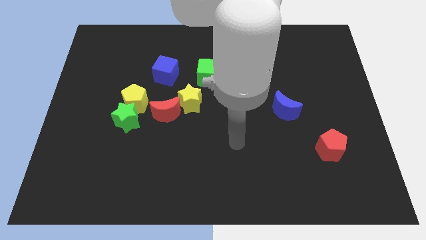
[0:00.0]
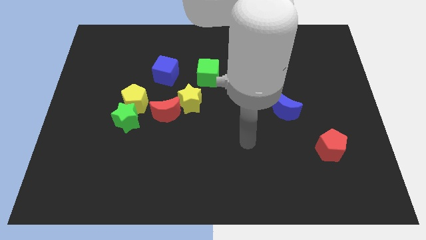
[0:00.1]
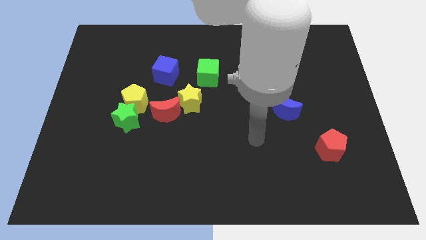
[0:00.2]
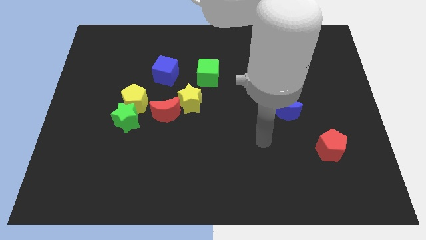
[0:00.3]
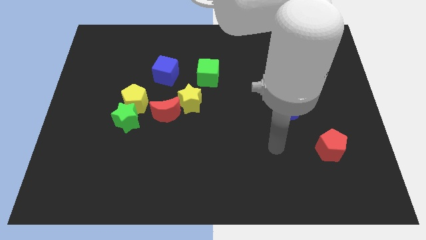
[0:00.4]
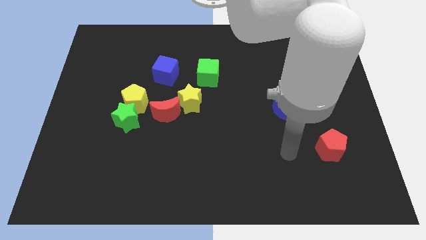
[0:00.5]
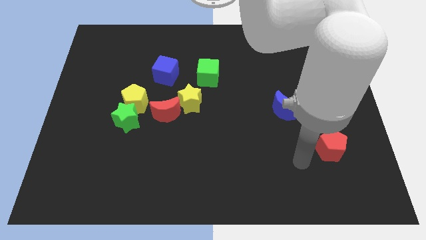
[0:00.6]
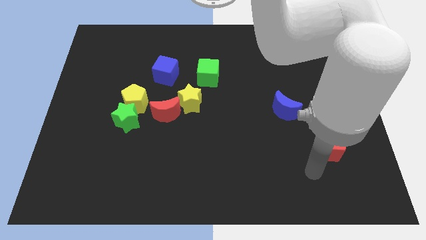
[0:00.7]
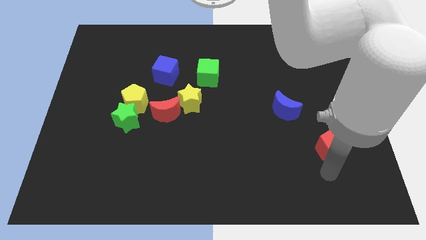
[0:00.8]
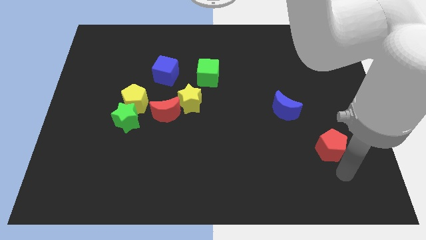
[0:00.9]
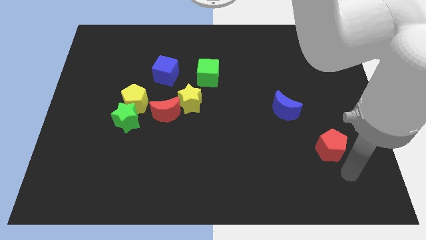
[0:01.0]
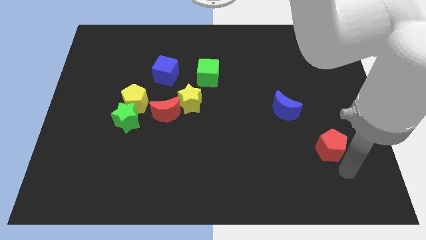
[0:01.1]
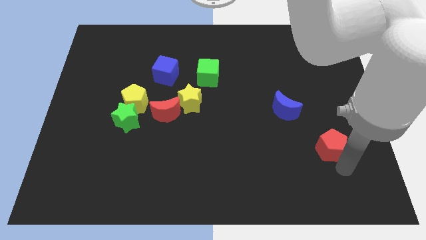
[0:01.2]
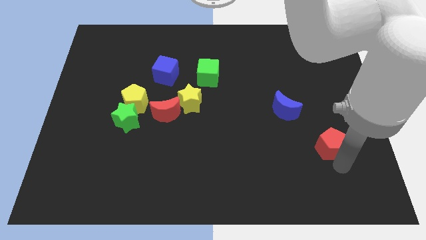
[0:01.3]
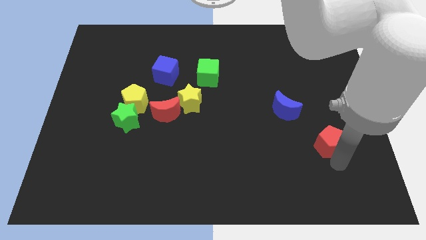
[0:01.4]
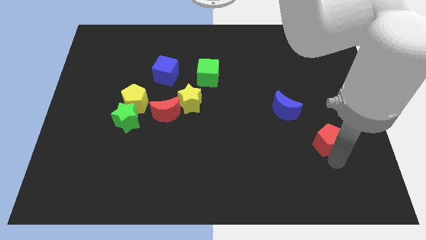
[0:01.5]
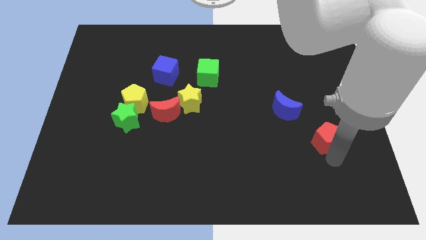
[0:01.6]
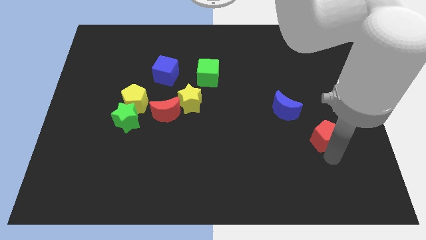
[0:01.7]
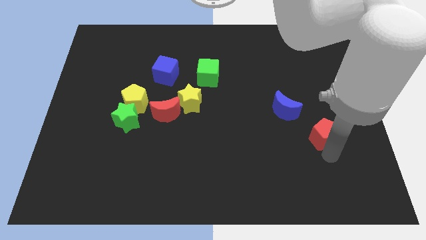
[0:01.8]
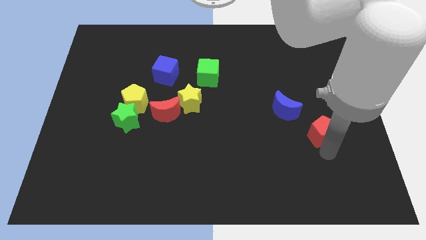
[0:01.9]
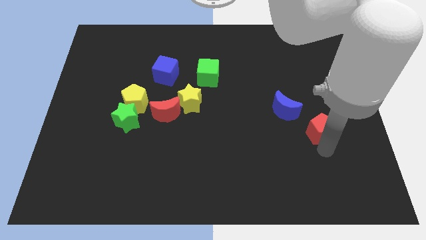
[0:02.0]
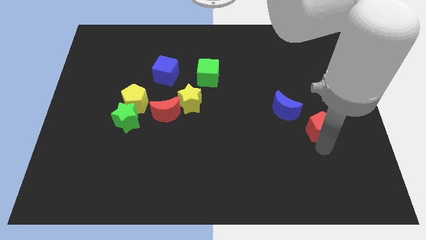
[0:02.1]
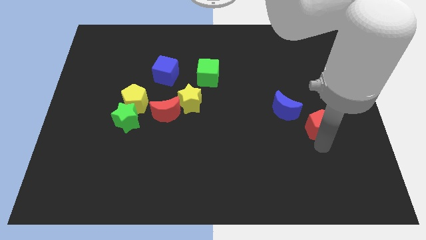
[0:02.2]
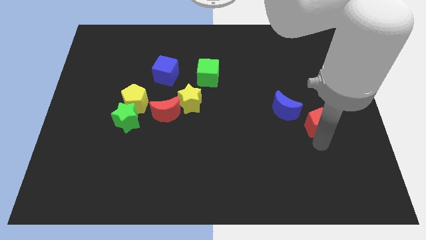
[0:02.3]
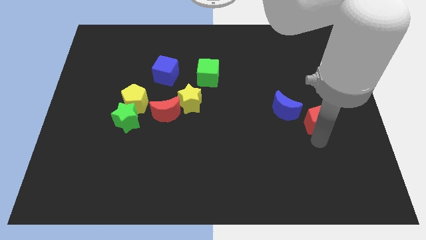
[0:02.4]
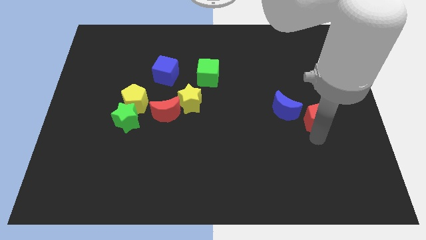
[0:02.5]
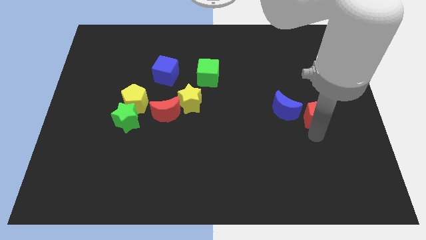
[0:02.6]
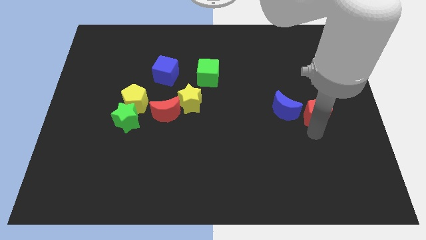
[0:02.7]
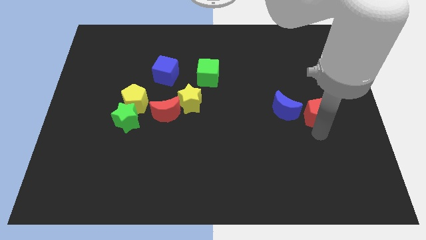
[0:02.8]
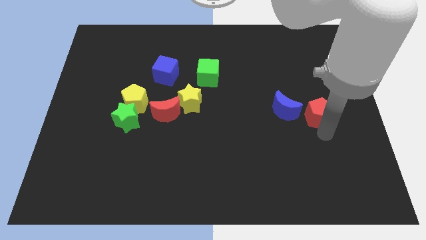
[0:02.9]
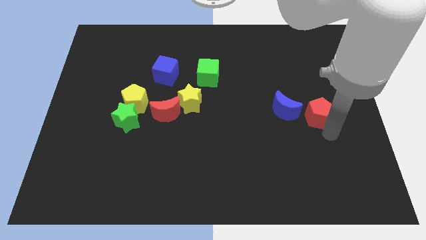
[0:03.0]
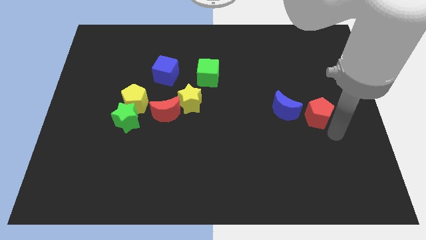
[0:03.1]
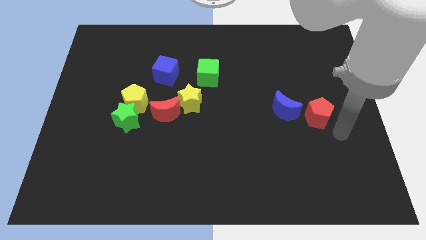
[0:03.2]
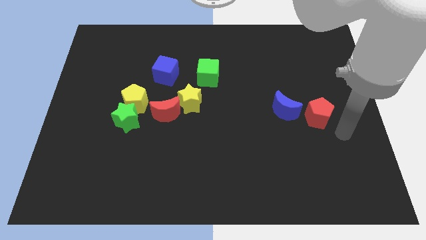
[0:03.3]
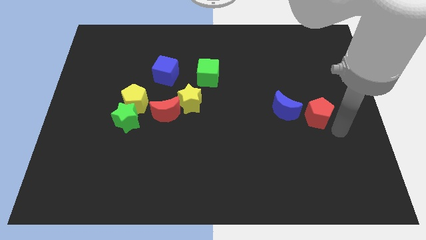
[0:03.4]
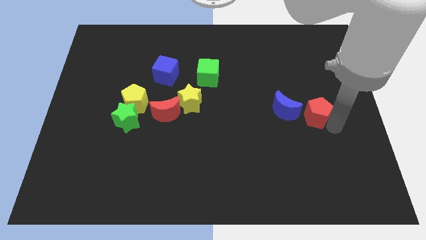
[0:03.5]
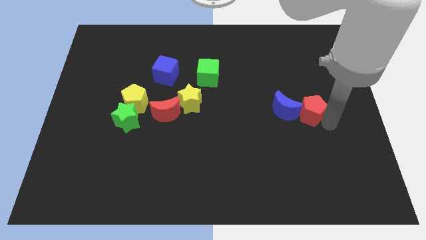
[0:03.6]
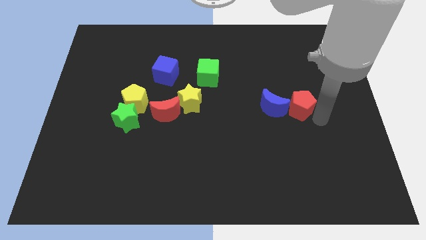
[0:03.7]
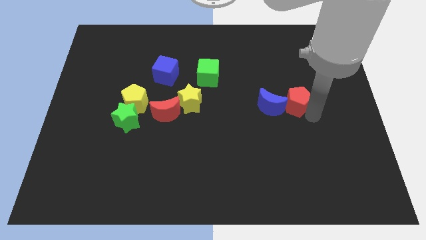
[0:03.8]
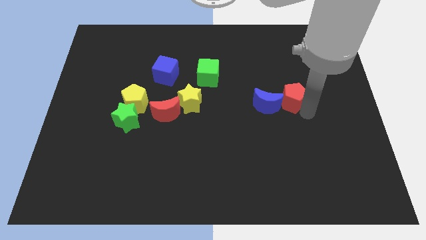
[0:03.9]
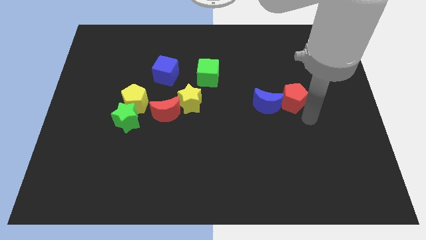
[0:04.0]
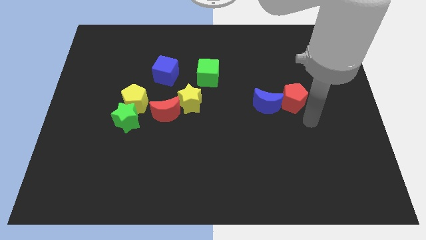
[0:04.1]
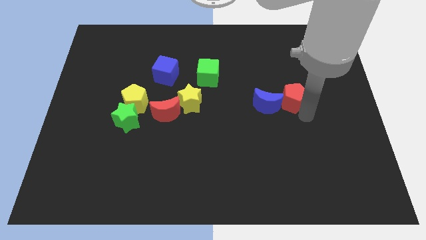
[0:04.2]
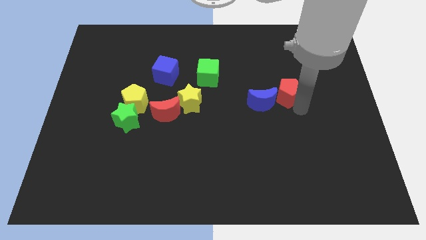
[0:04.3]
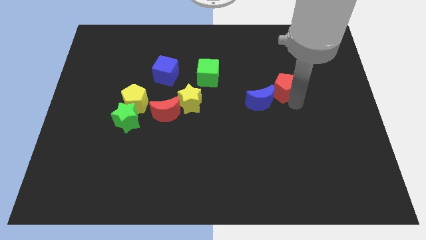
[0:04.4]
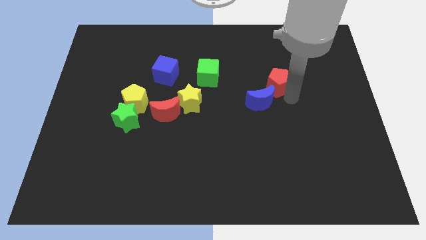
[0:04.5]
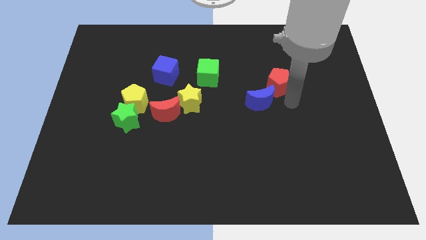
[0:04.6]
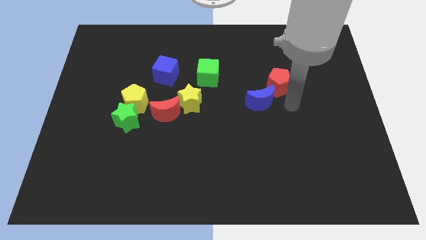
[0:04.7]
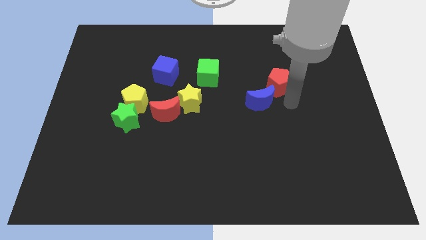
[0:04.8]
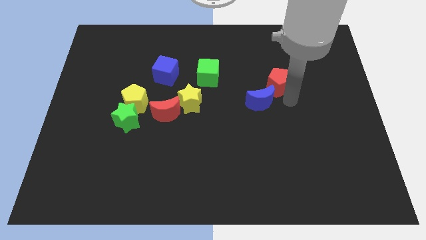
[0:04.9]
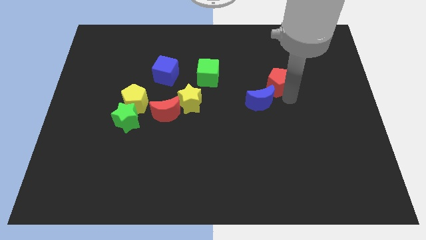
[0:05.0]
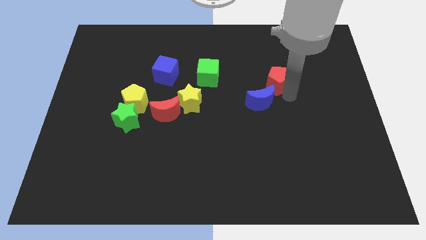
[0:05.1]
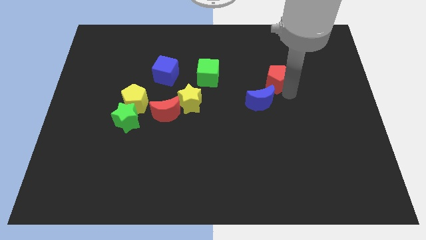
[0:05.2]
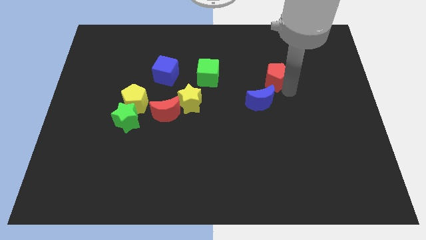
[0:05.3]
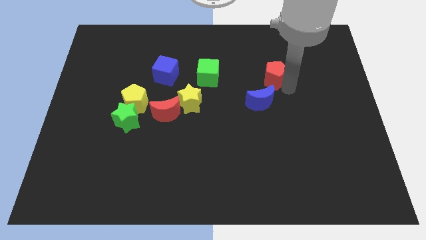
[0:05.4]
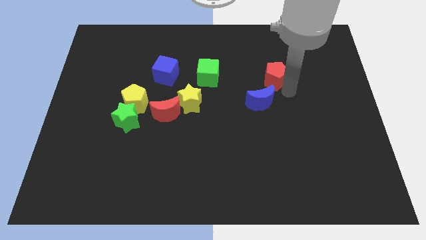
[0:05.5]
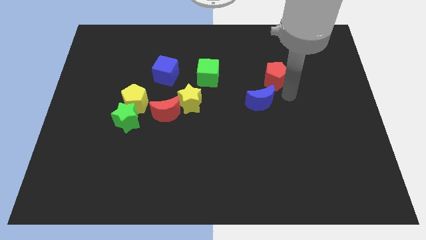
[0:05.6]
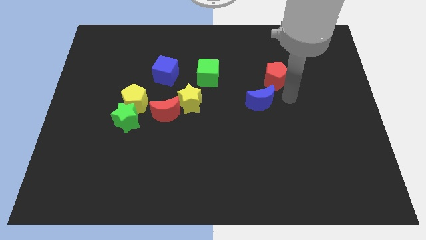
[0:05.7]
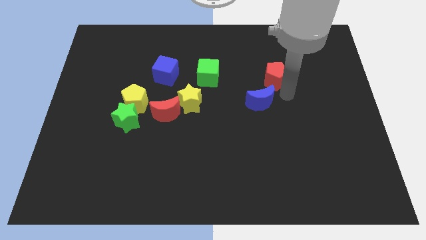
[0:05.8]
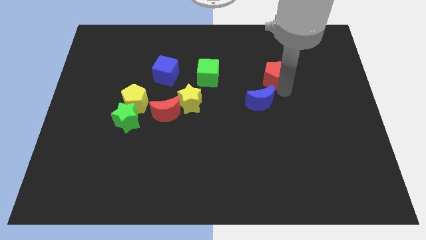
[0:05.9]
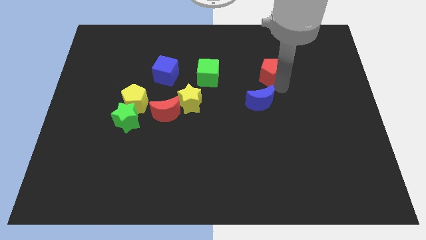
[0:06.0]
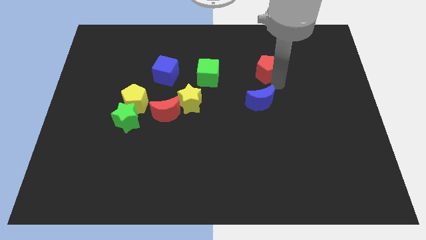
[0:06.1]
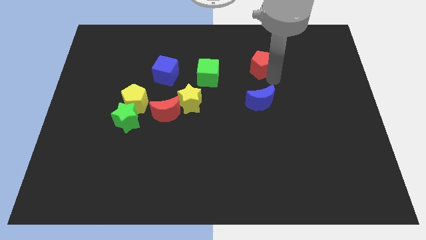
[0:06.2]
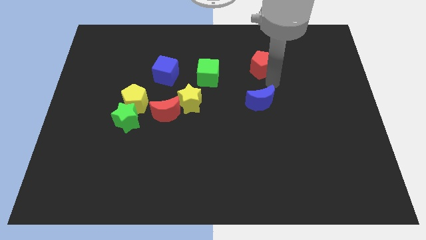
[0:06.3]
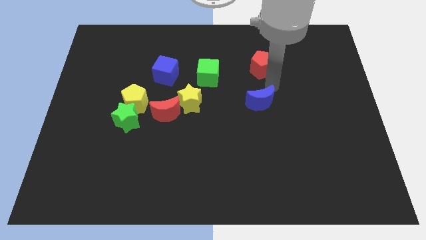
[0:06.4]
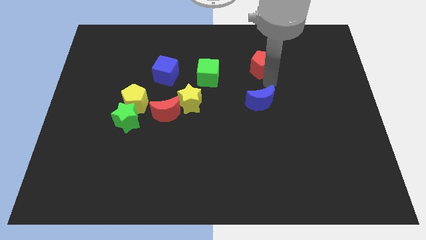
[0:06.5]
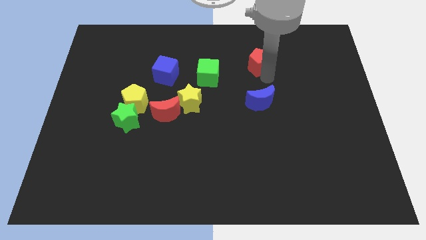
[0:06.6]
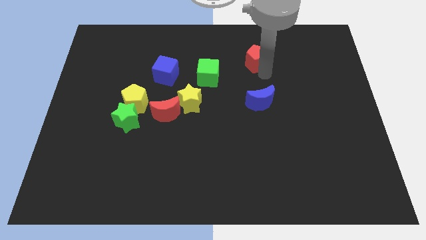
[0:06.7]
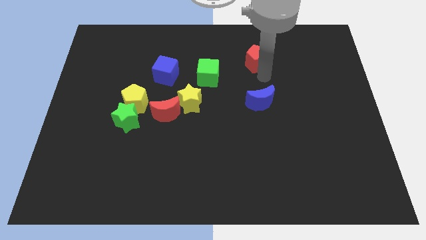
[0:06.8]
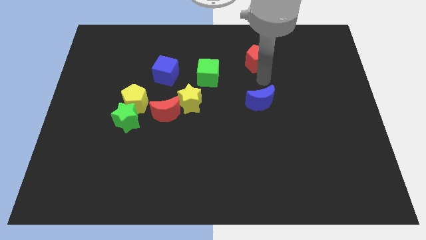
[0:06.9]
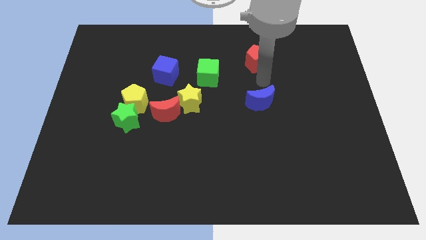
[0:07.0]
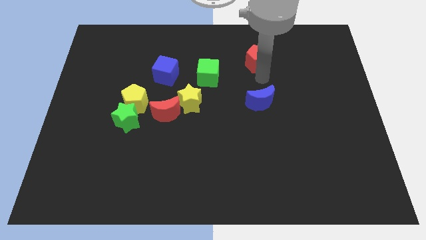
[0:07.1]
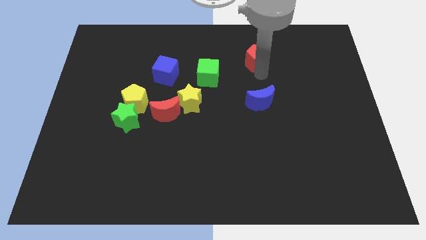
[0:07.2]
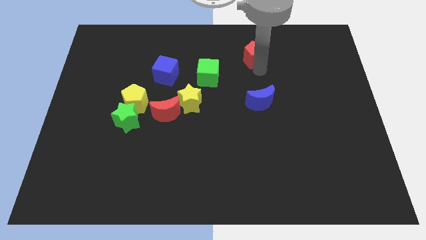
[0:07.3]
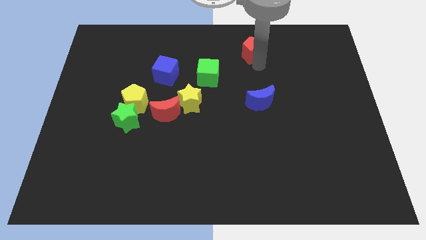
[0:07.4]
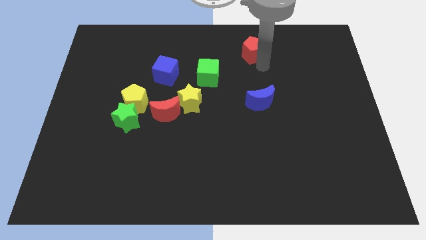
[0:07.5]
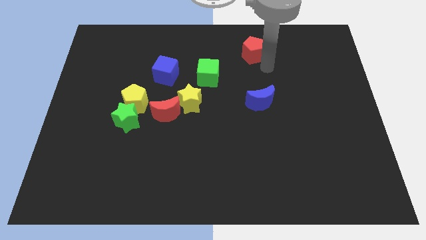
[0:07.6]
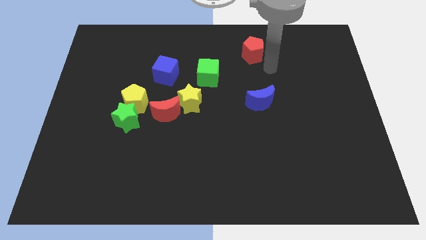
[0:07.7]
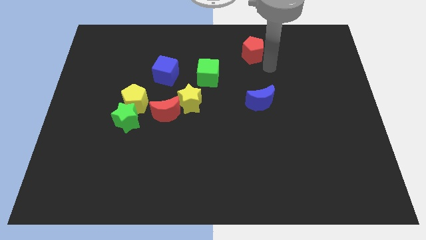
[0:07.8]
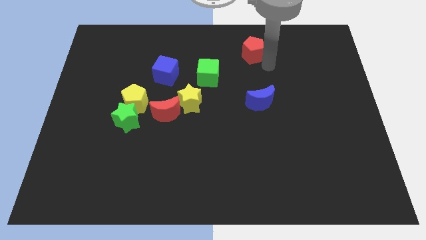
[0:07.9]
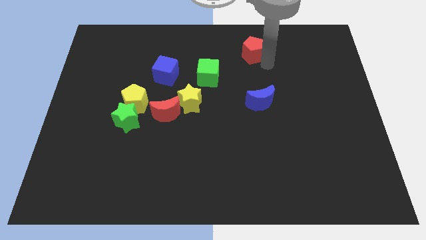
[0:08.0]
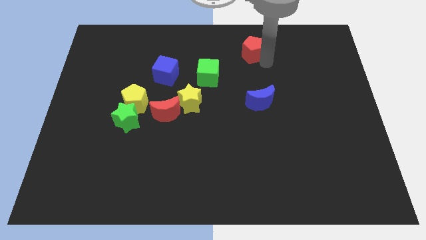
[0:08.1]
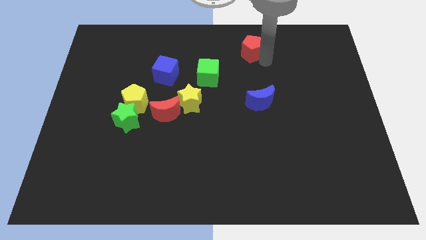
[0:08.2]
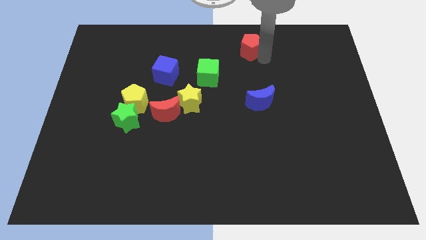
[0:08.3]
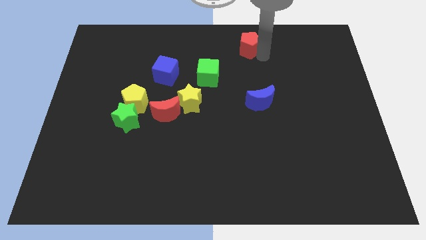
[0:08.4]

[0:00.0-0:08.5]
put the red pentagon to the top side
